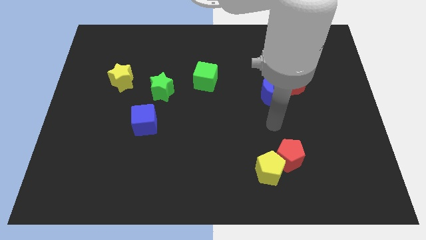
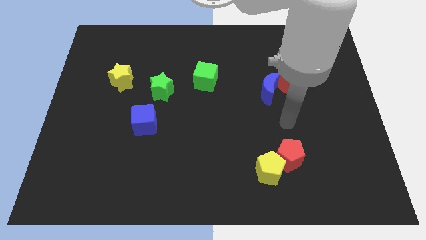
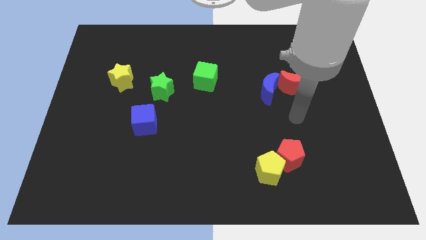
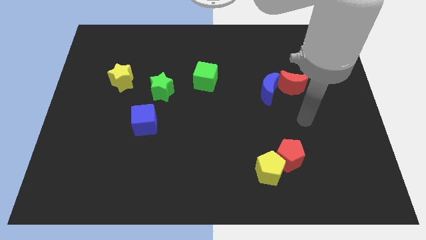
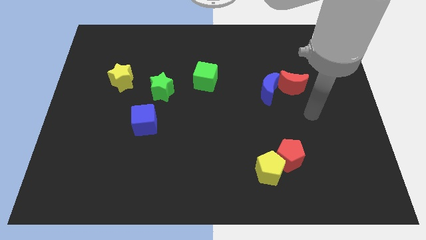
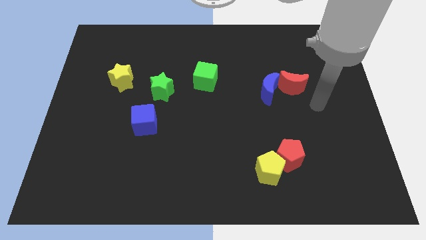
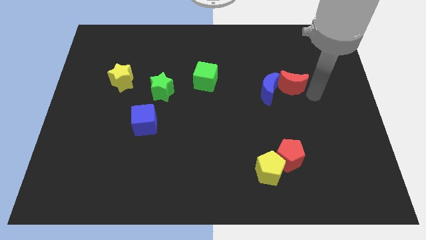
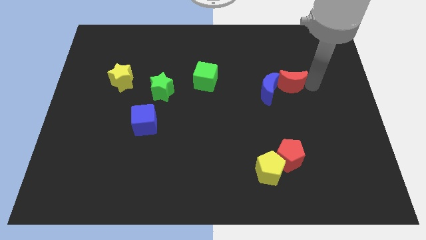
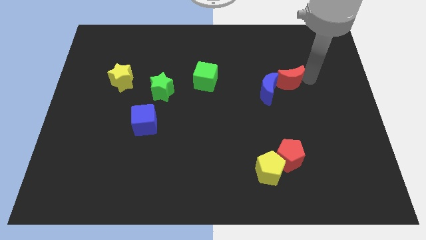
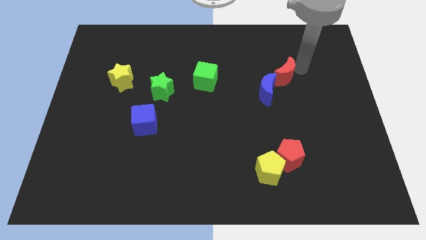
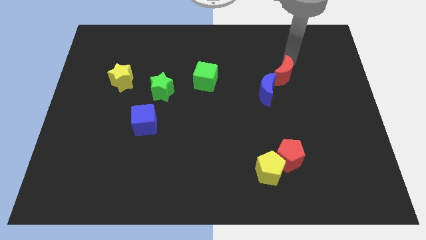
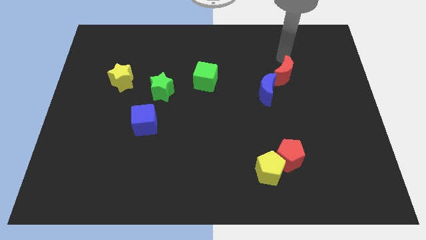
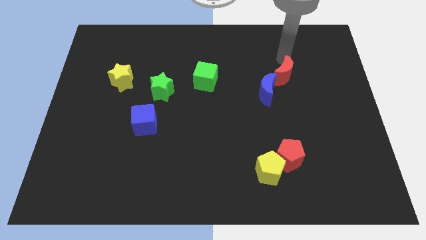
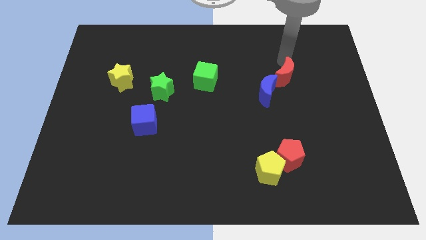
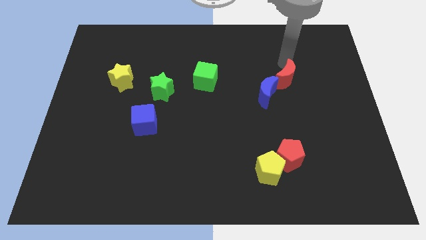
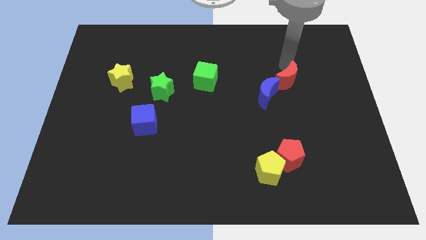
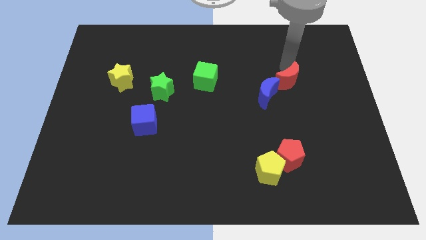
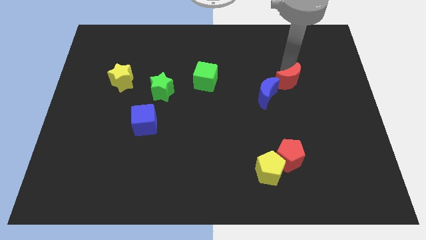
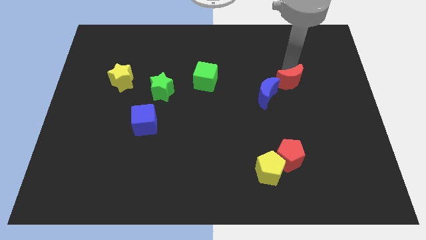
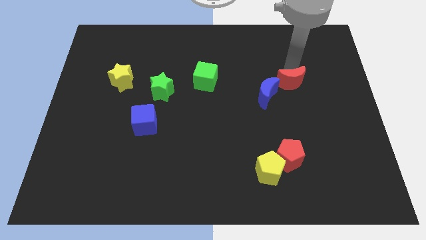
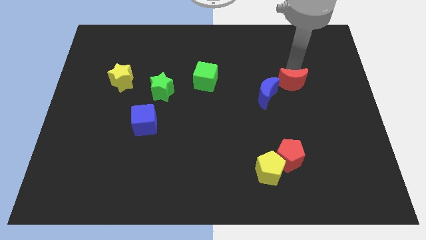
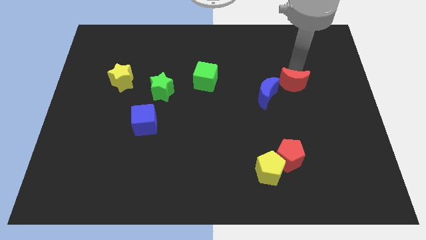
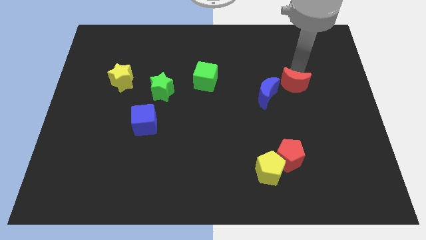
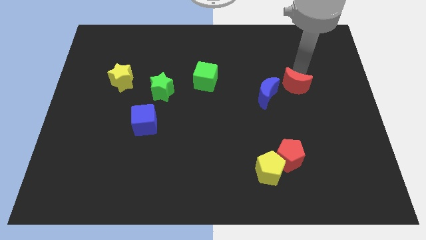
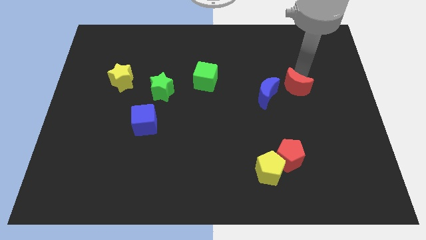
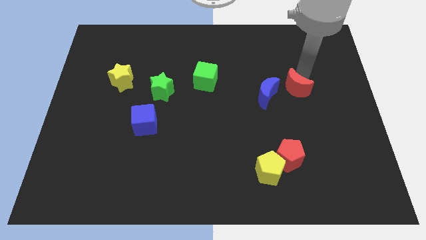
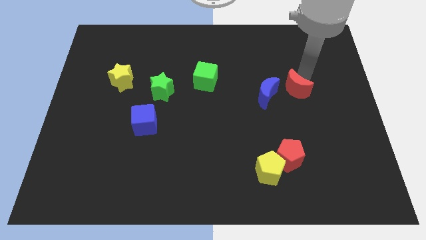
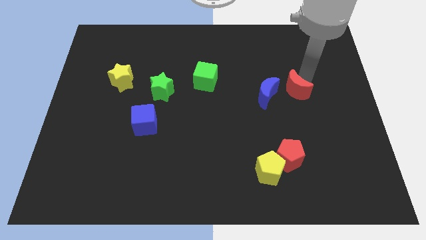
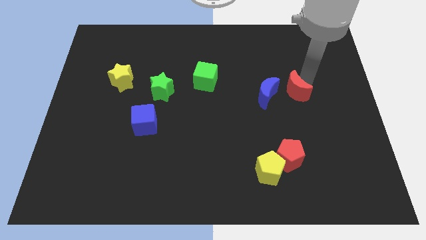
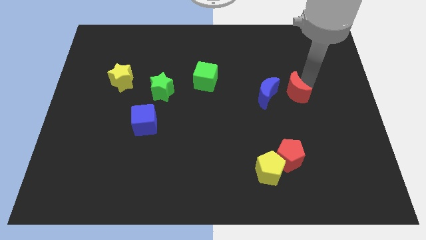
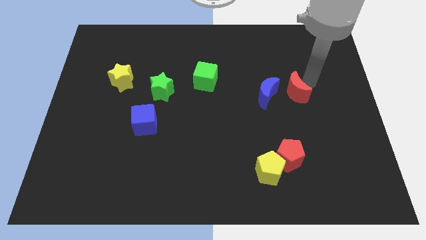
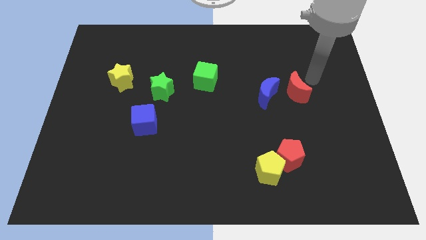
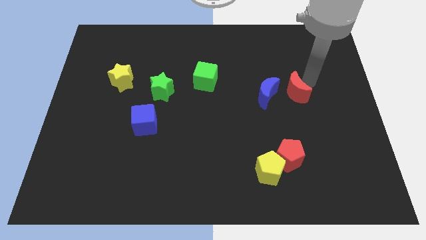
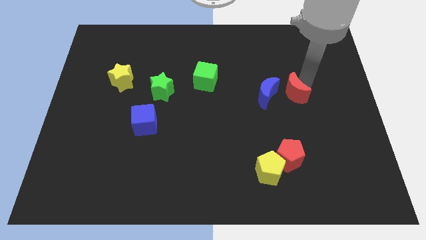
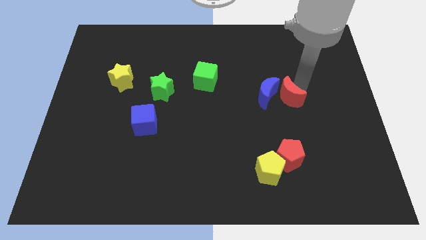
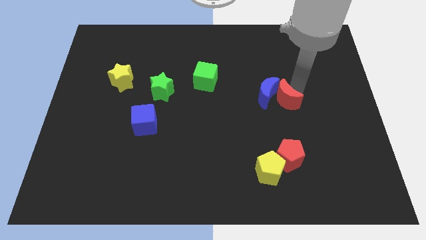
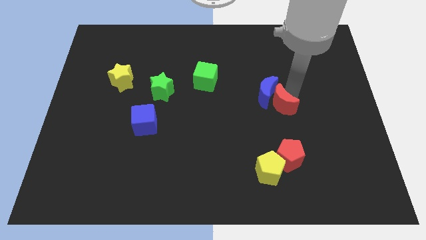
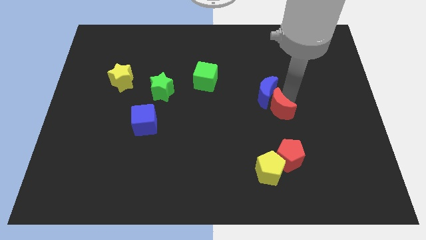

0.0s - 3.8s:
slide the red moon a little bit down and then left

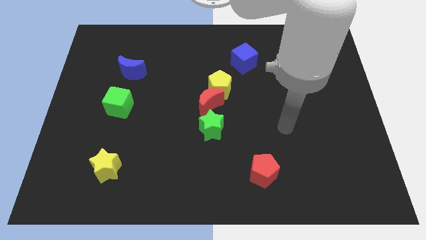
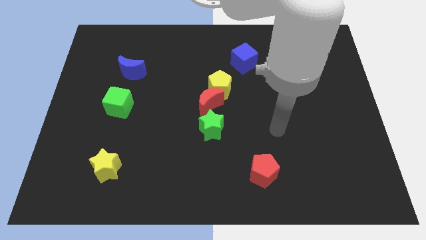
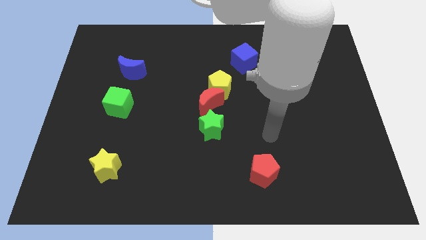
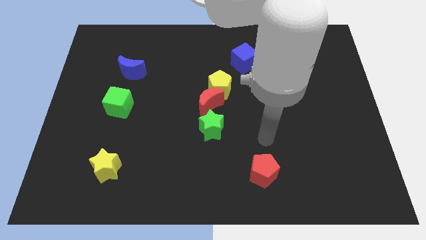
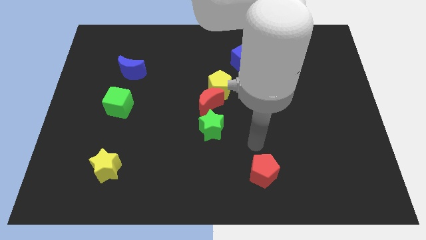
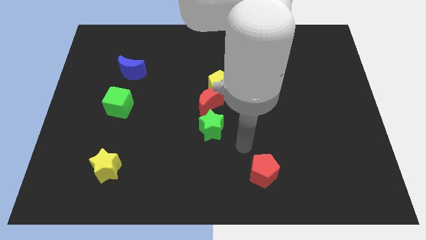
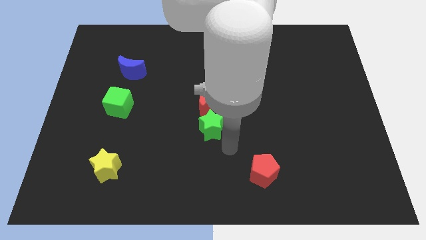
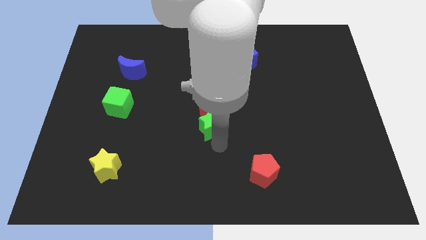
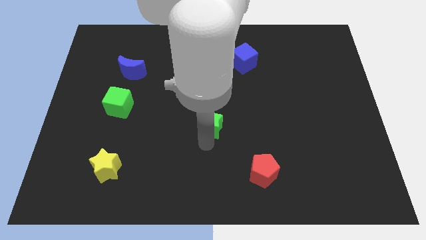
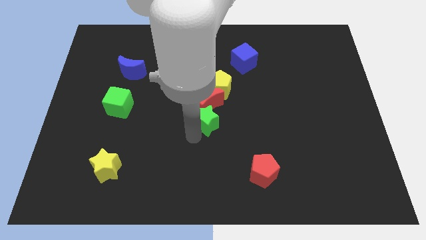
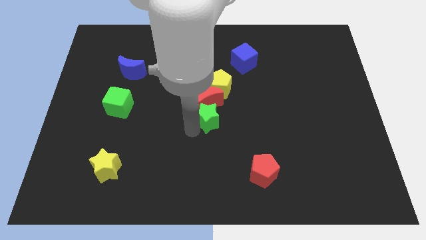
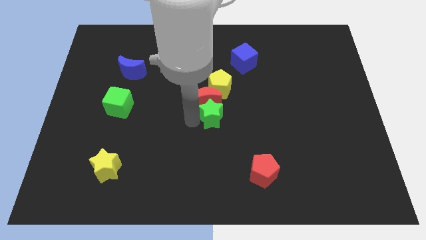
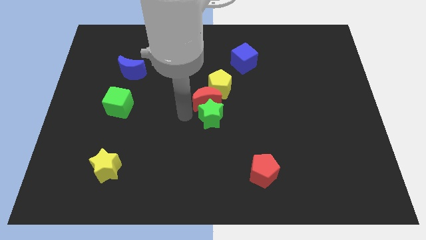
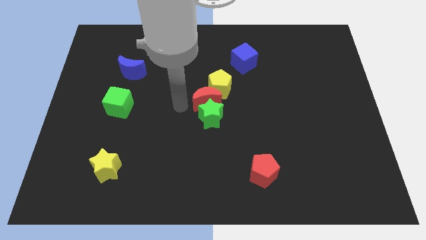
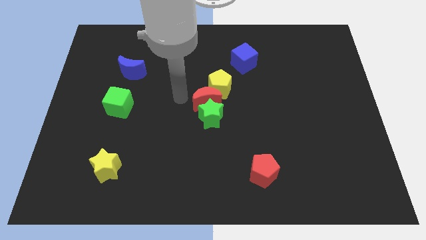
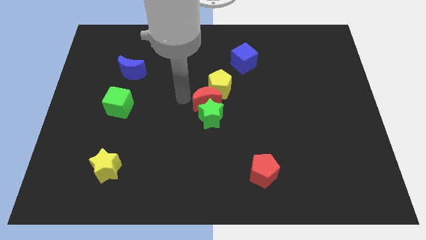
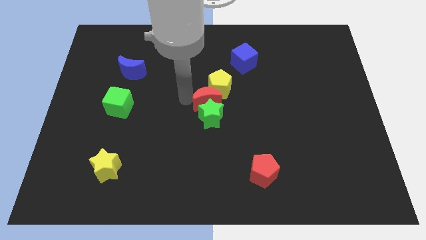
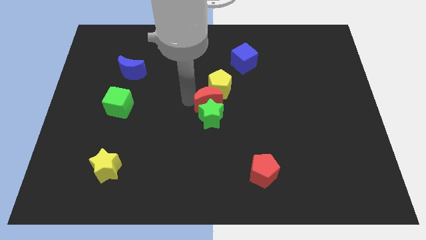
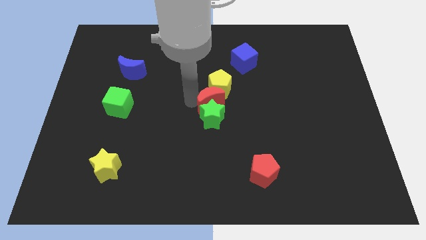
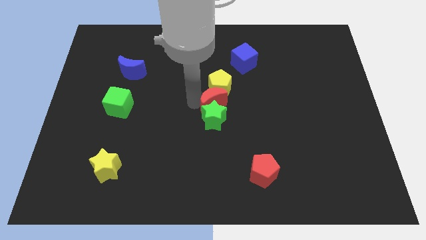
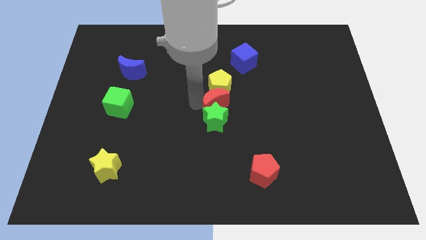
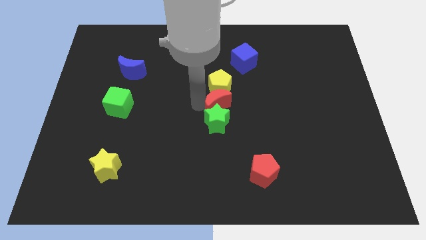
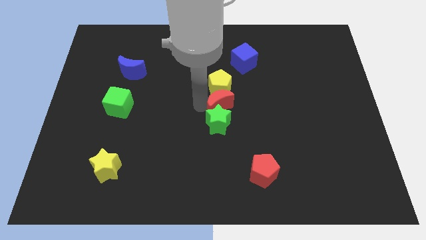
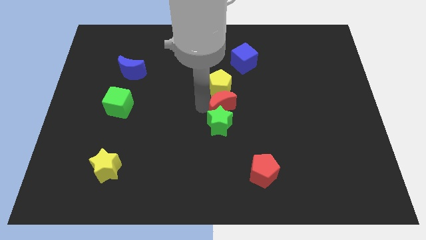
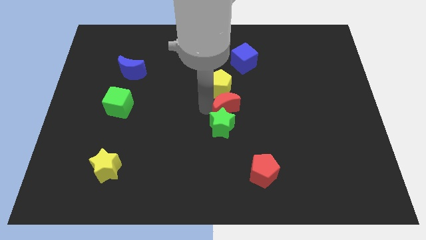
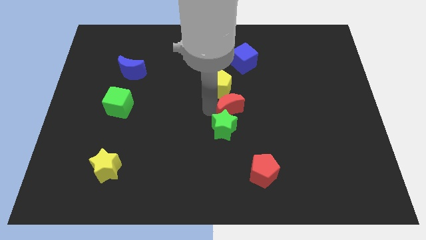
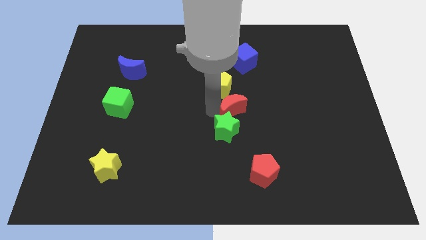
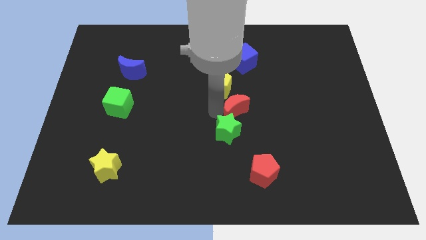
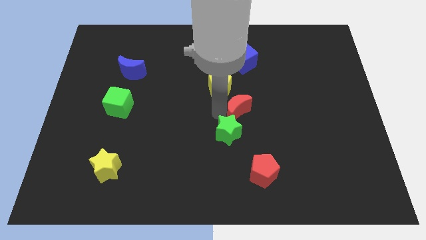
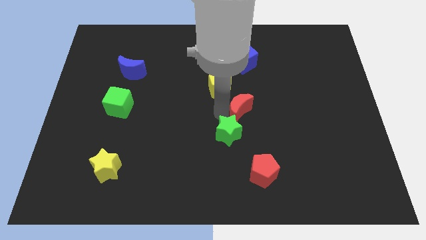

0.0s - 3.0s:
slide the red moon to the right a bit

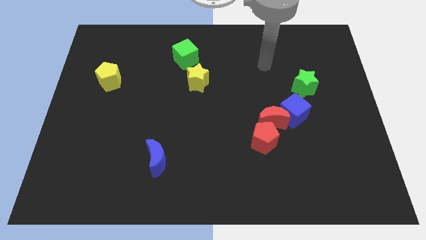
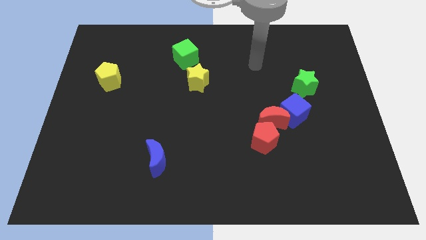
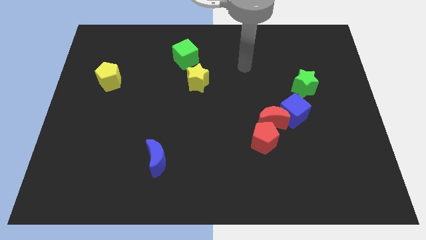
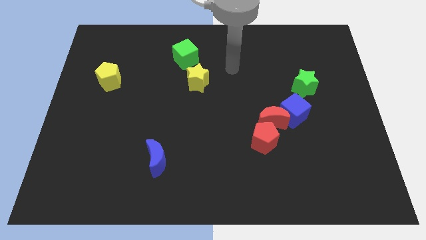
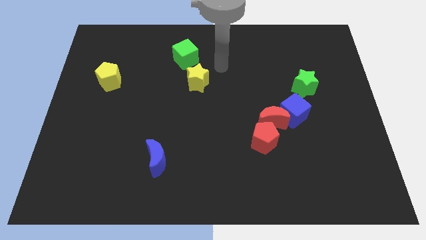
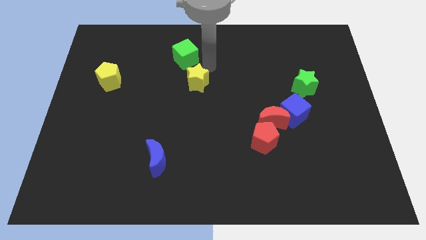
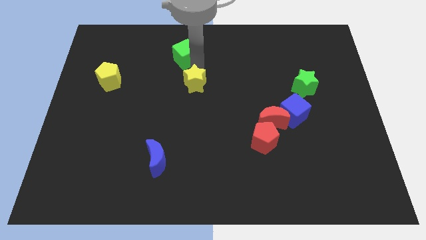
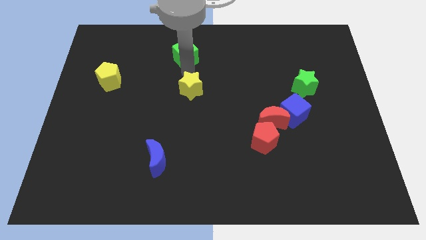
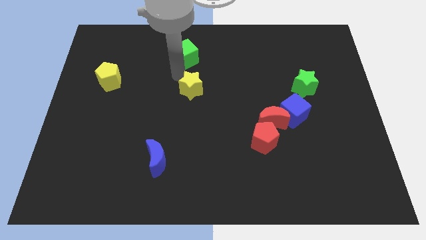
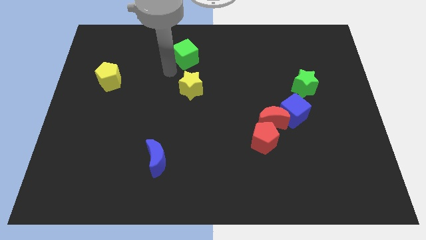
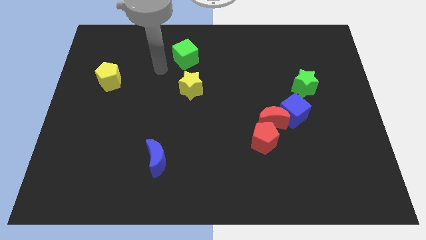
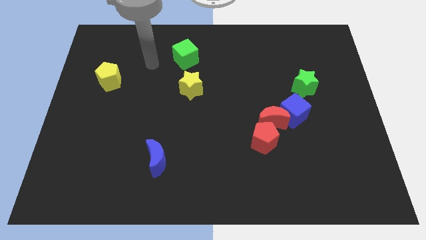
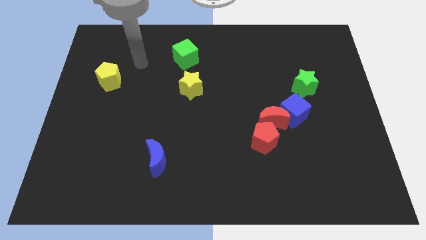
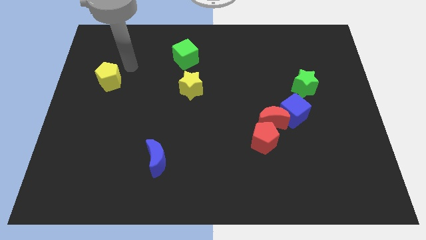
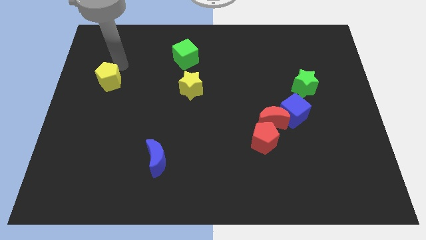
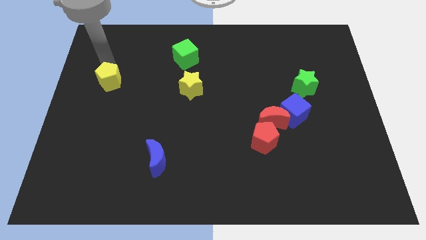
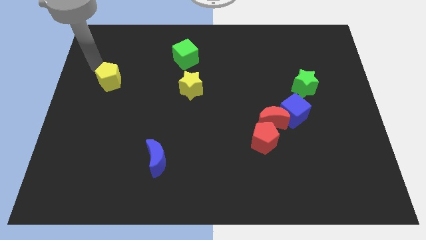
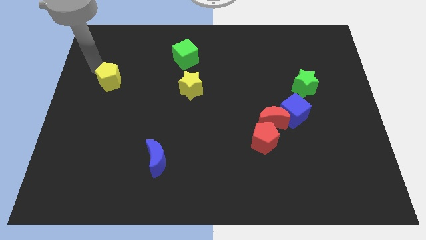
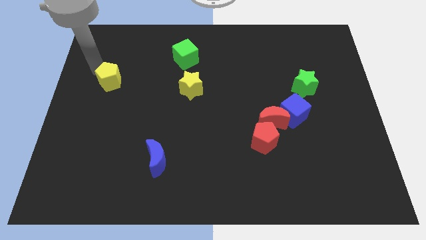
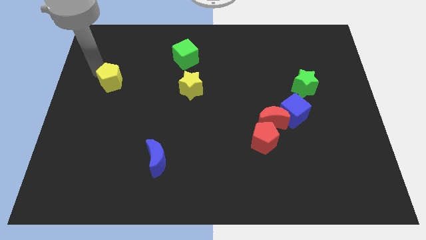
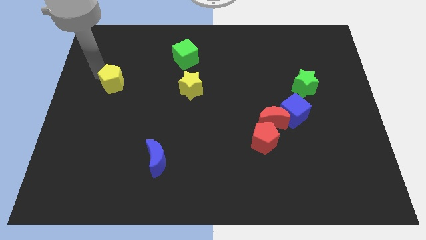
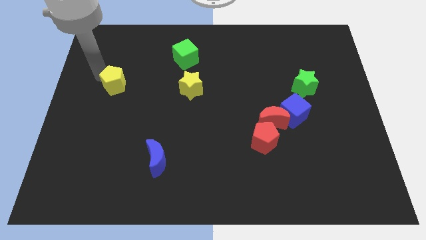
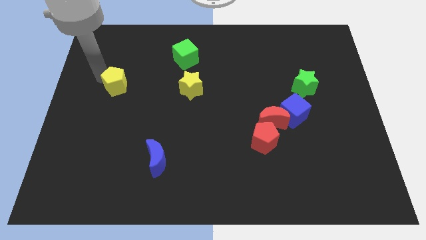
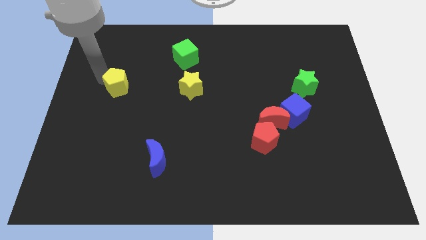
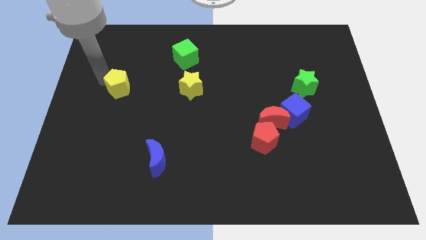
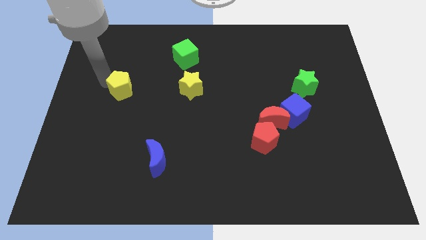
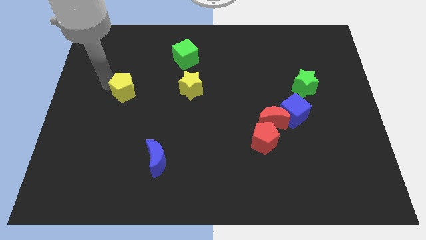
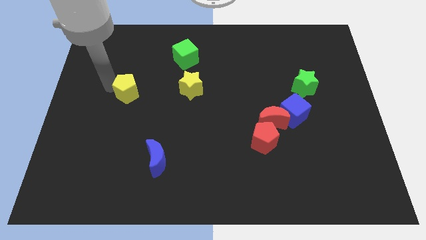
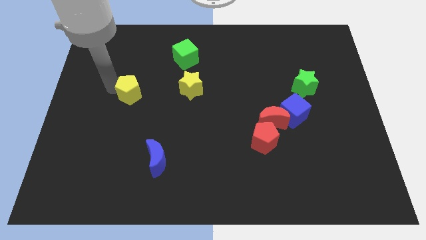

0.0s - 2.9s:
slightly push the yellow pentagon downwards and then to the right
